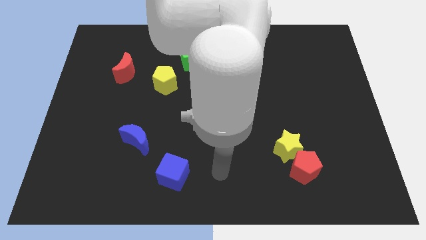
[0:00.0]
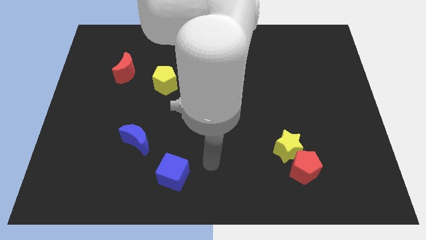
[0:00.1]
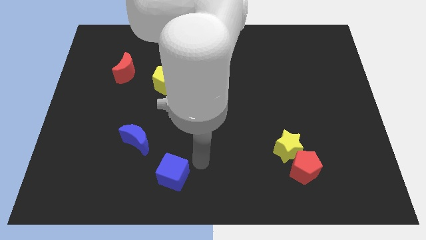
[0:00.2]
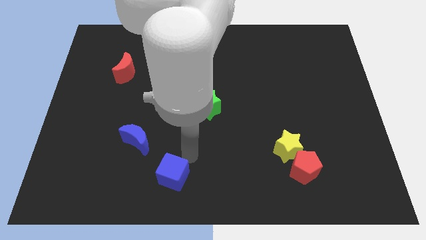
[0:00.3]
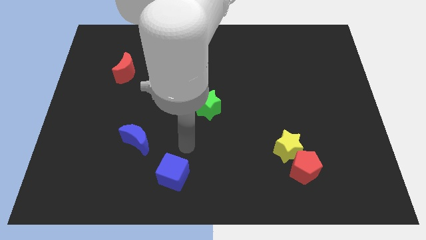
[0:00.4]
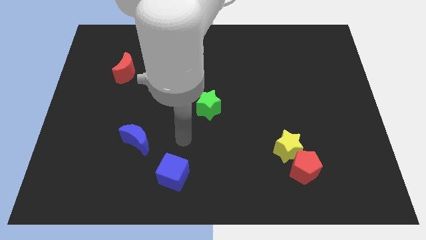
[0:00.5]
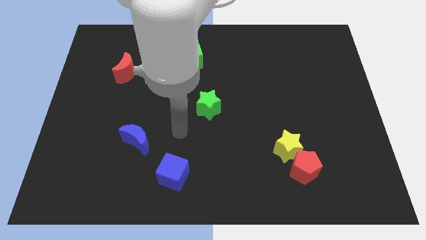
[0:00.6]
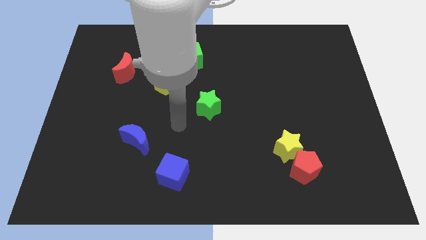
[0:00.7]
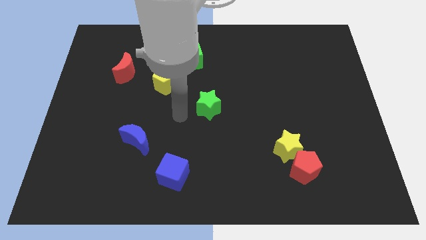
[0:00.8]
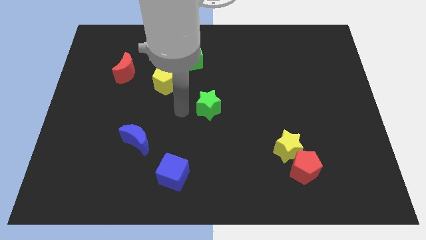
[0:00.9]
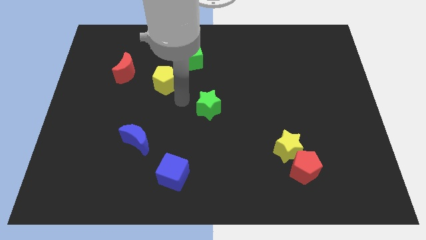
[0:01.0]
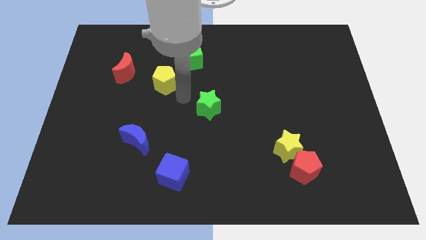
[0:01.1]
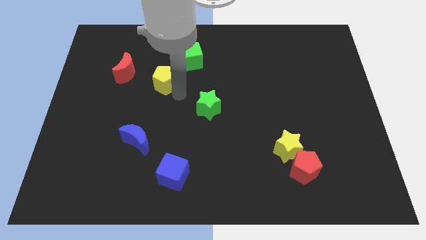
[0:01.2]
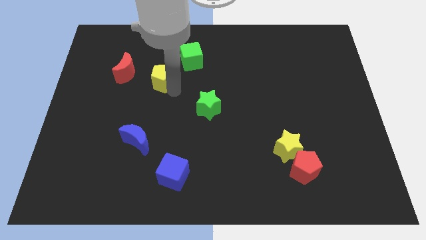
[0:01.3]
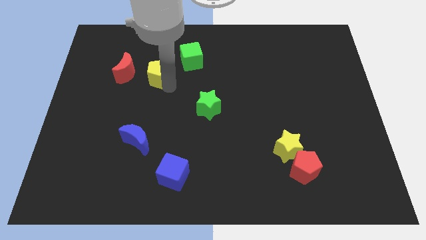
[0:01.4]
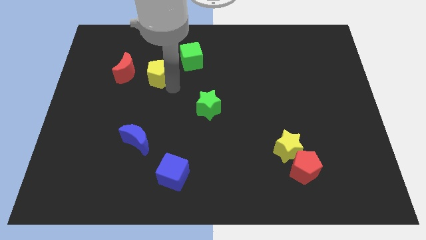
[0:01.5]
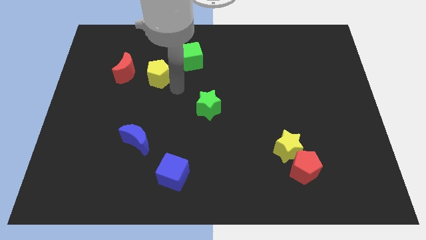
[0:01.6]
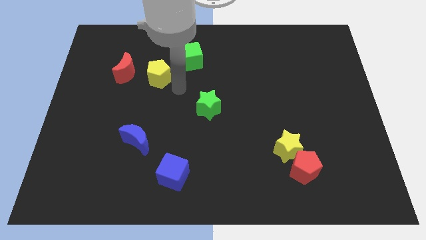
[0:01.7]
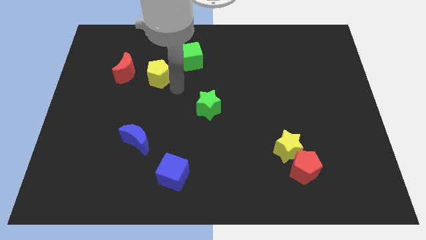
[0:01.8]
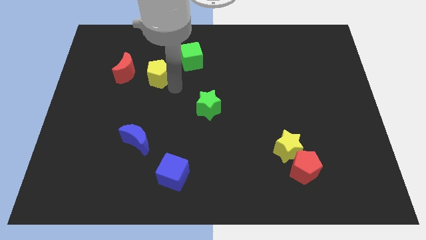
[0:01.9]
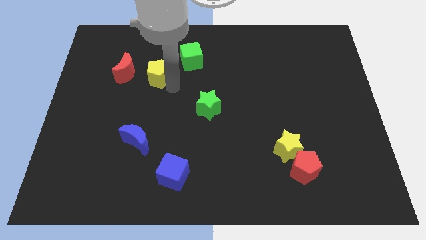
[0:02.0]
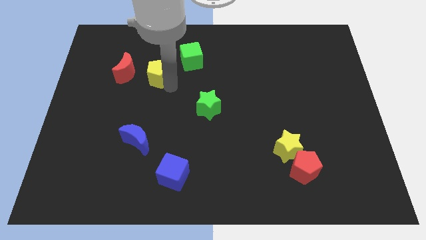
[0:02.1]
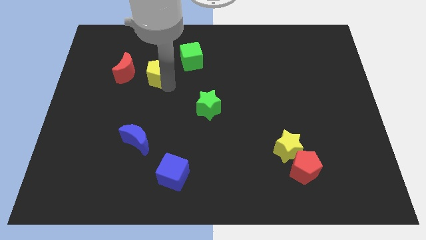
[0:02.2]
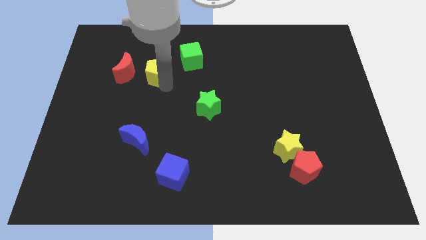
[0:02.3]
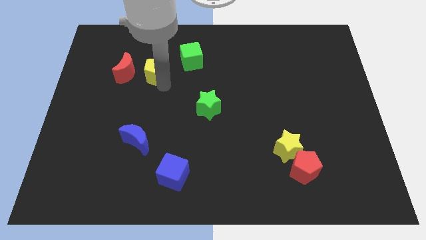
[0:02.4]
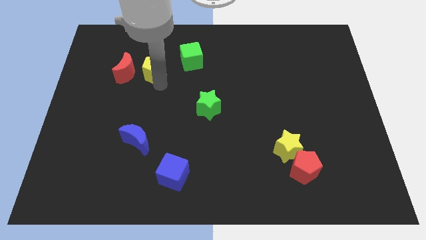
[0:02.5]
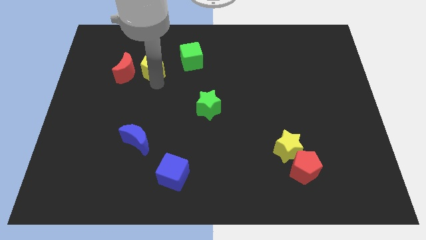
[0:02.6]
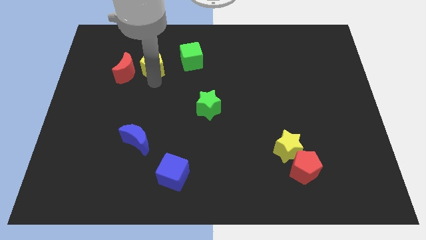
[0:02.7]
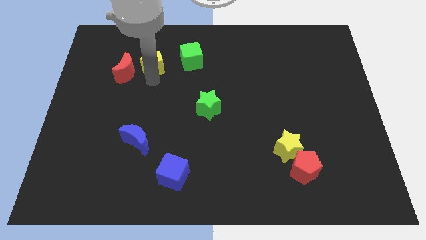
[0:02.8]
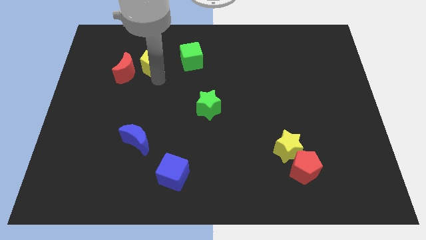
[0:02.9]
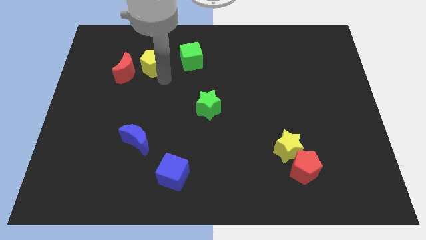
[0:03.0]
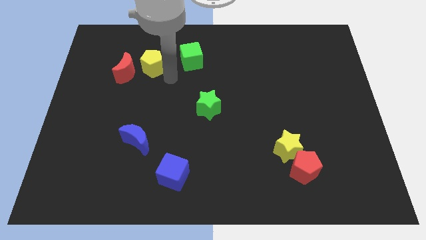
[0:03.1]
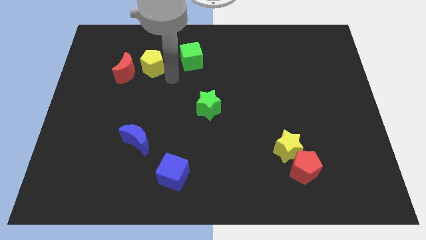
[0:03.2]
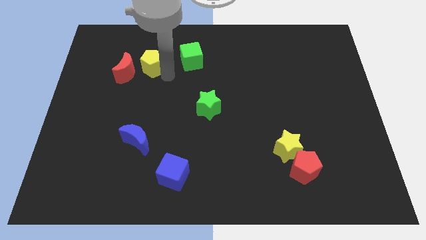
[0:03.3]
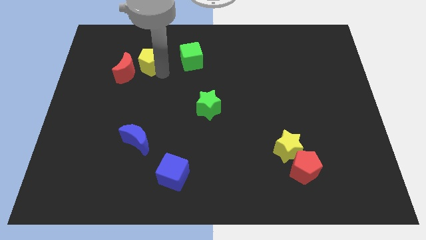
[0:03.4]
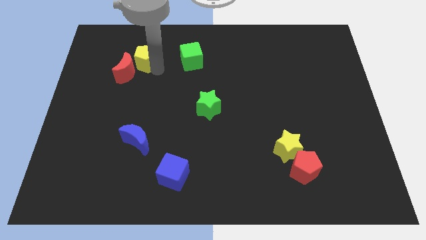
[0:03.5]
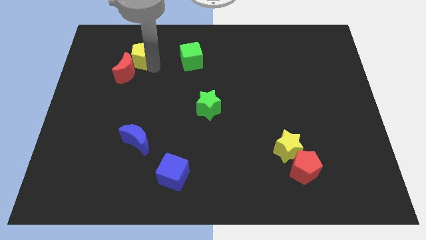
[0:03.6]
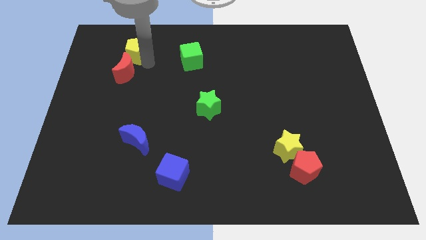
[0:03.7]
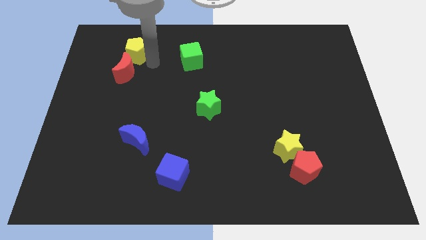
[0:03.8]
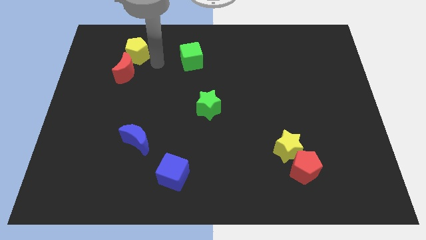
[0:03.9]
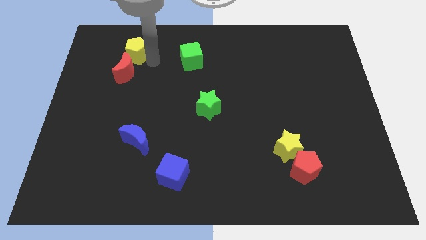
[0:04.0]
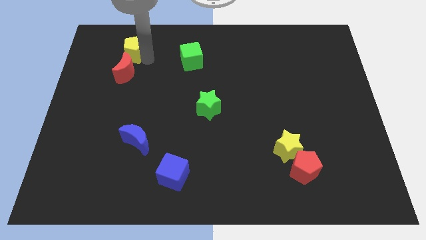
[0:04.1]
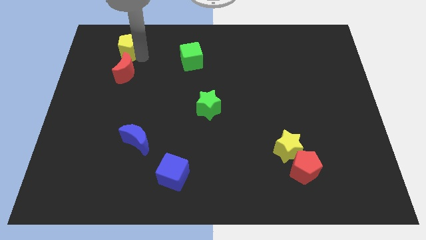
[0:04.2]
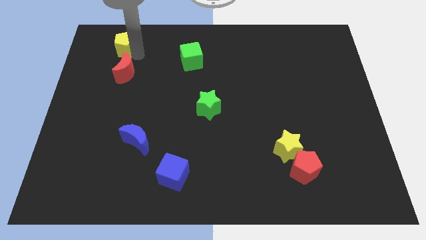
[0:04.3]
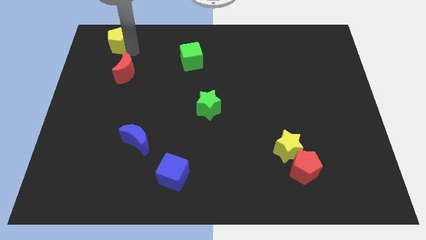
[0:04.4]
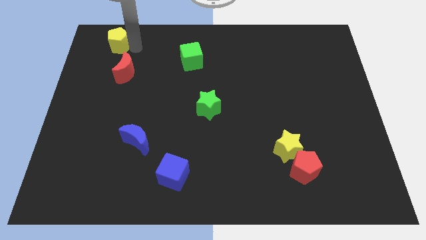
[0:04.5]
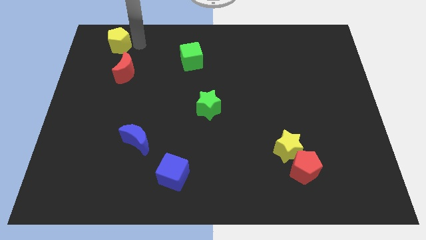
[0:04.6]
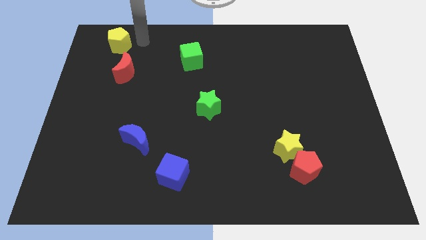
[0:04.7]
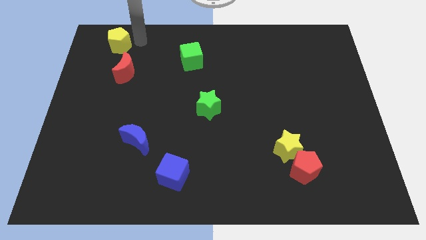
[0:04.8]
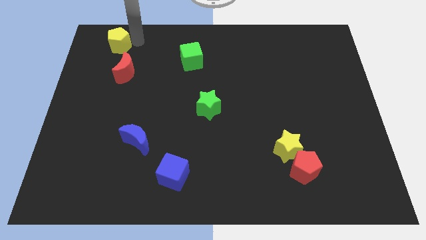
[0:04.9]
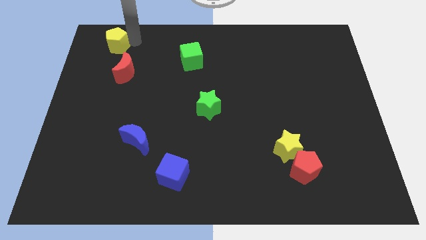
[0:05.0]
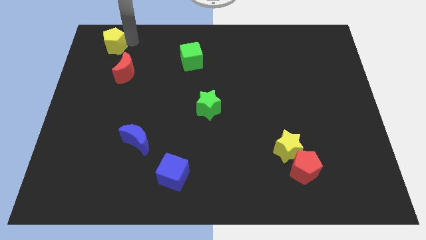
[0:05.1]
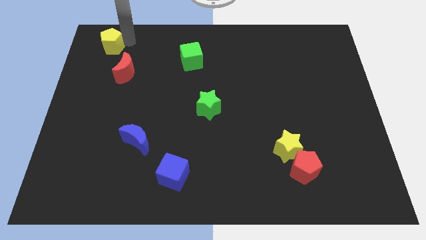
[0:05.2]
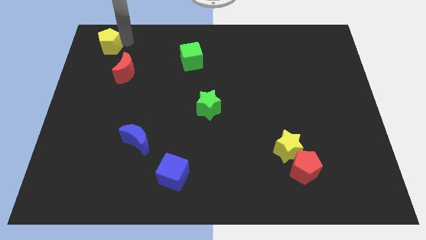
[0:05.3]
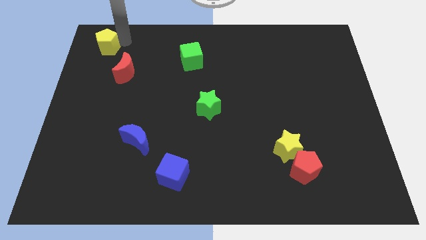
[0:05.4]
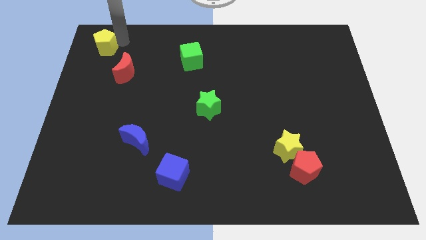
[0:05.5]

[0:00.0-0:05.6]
slide the yellow pentagon to the top left corner

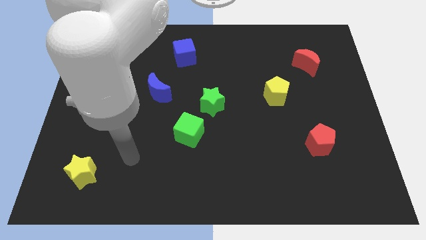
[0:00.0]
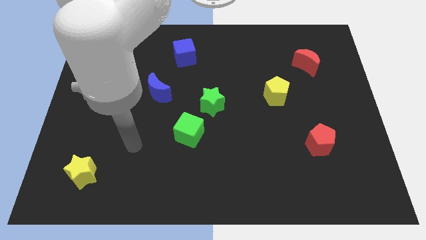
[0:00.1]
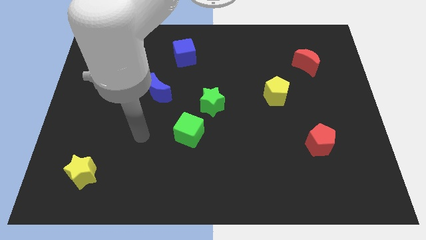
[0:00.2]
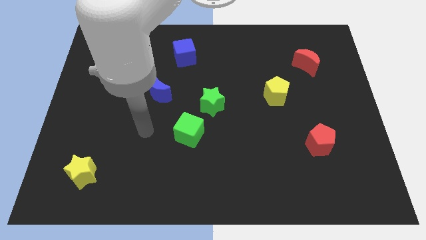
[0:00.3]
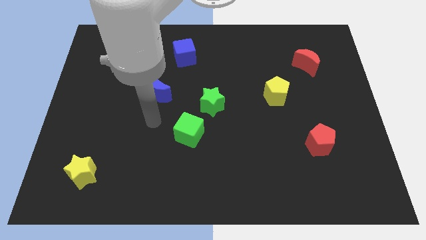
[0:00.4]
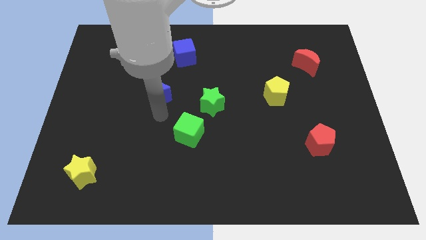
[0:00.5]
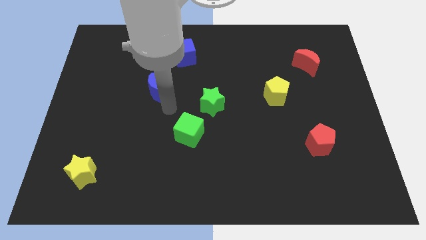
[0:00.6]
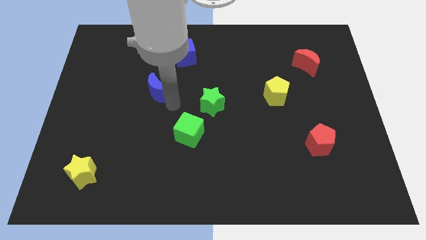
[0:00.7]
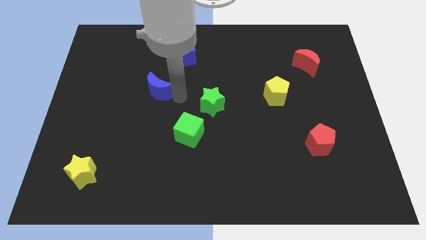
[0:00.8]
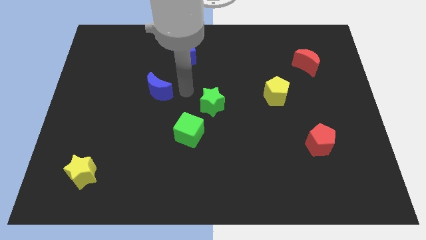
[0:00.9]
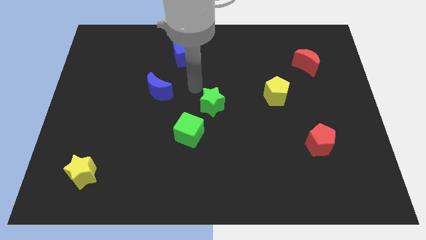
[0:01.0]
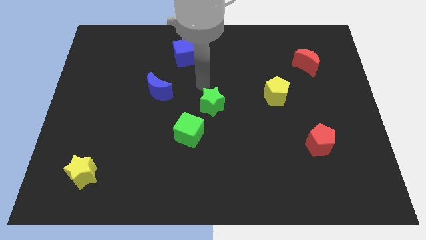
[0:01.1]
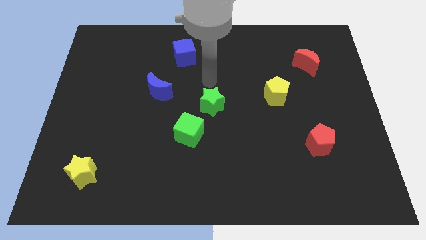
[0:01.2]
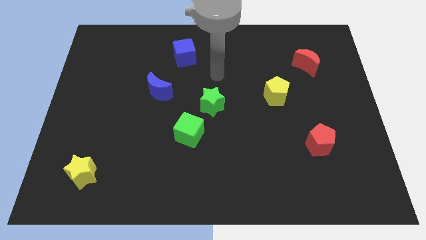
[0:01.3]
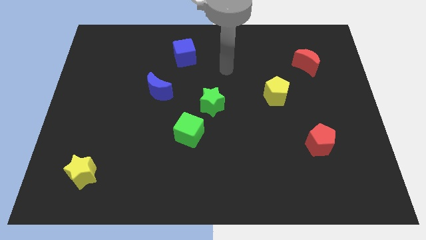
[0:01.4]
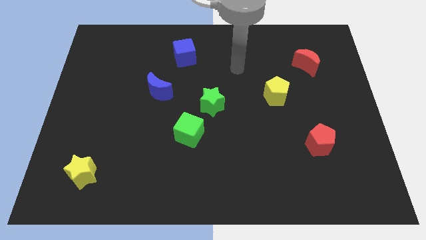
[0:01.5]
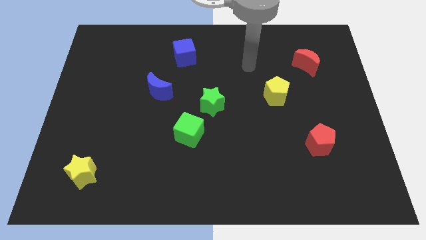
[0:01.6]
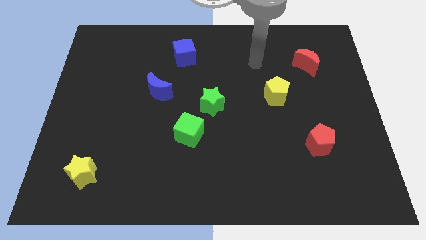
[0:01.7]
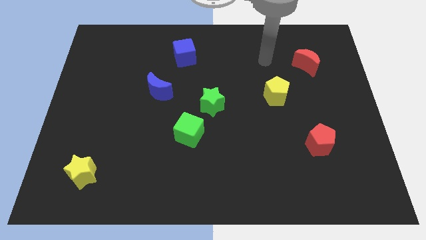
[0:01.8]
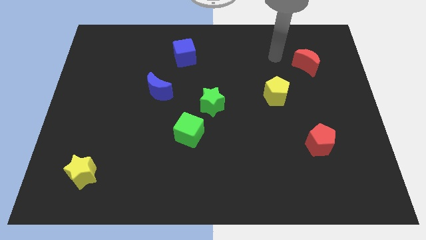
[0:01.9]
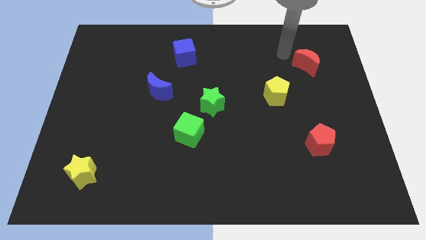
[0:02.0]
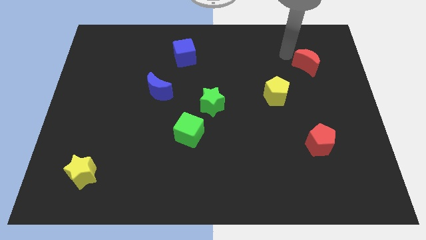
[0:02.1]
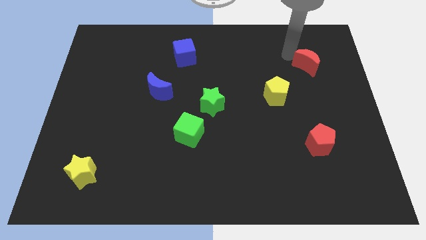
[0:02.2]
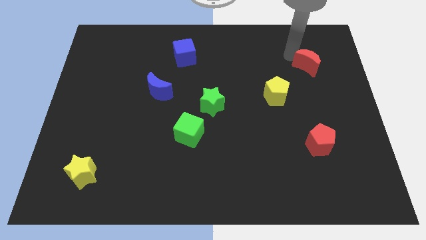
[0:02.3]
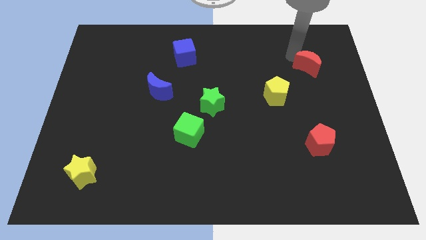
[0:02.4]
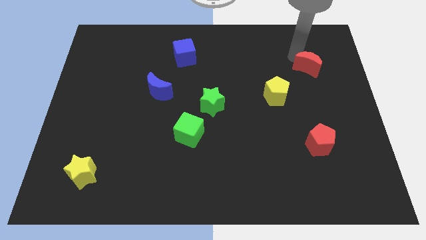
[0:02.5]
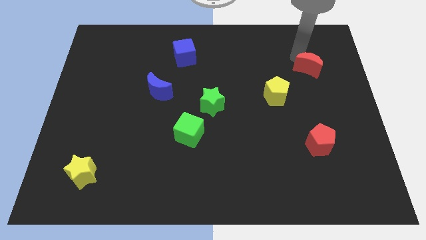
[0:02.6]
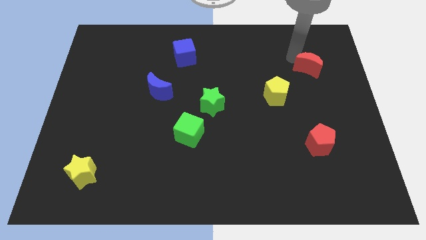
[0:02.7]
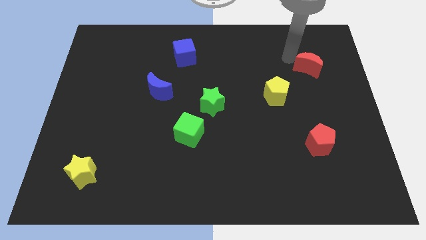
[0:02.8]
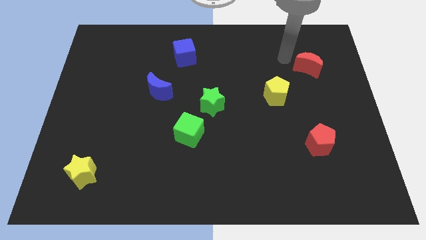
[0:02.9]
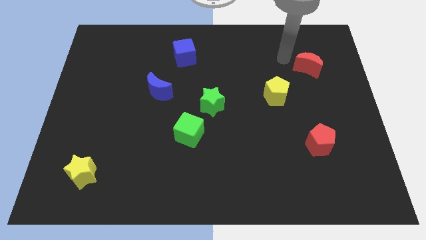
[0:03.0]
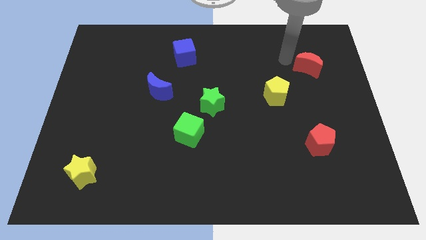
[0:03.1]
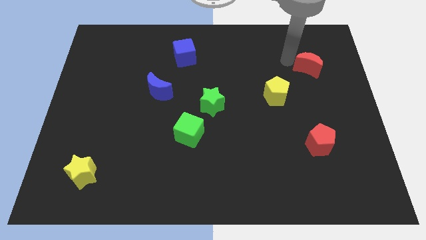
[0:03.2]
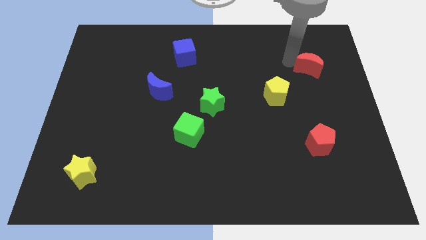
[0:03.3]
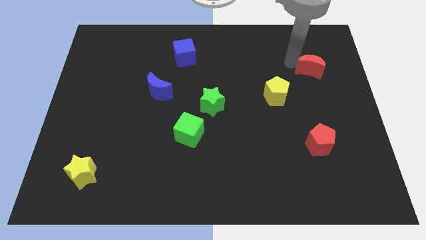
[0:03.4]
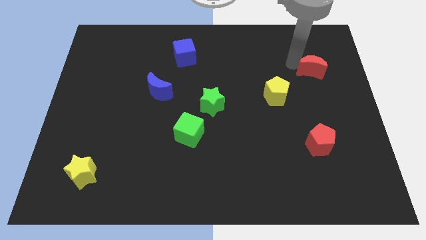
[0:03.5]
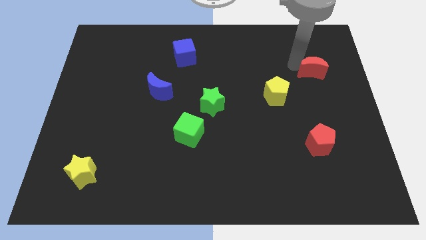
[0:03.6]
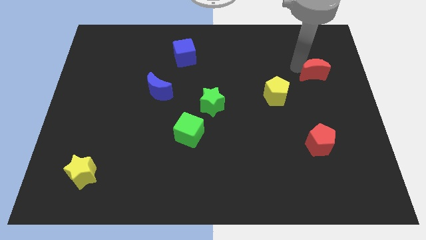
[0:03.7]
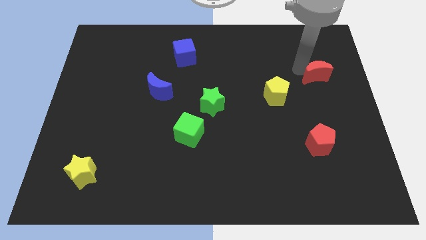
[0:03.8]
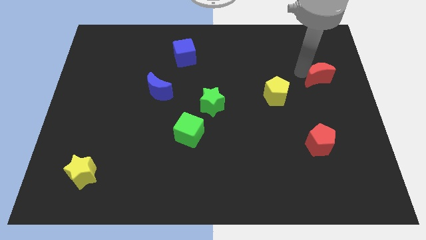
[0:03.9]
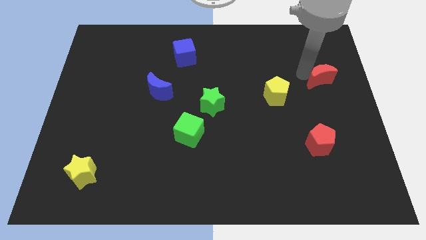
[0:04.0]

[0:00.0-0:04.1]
move the red moon to the right side of the board
